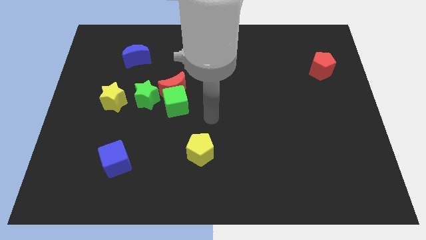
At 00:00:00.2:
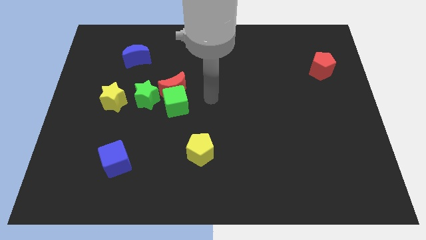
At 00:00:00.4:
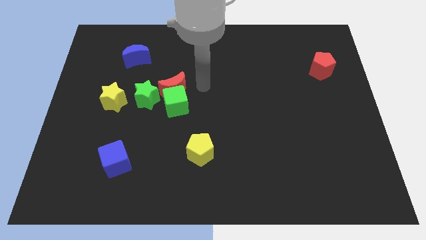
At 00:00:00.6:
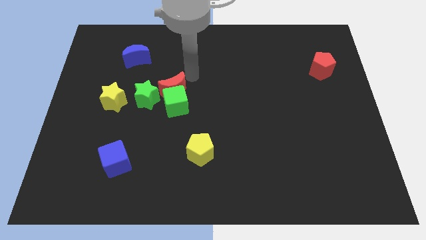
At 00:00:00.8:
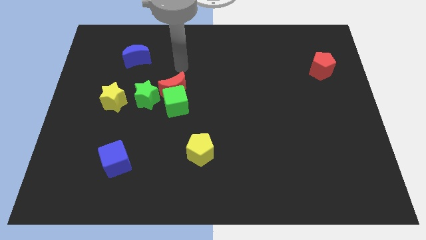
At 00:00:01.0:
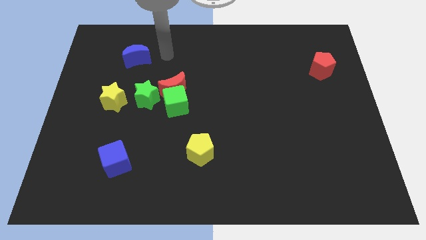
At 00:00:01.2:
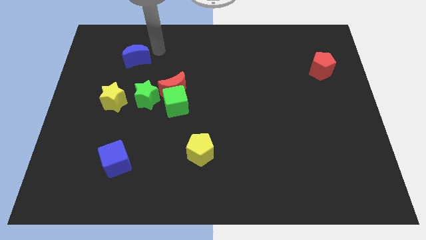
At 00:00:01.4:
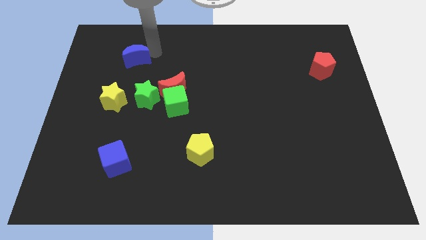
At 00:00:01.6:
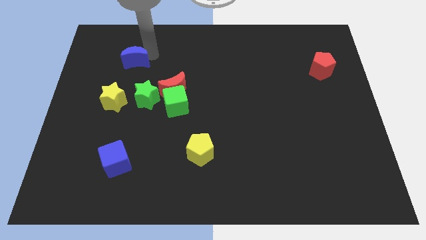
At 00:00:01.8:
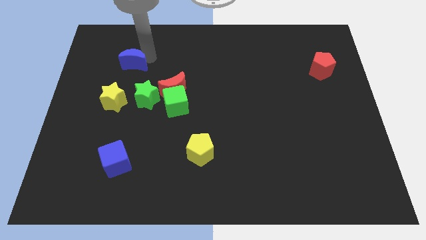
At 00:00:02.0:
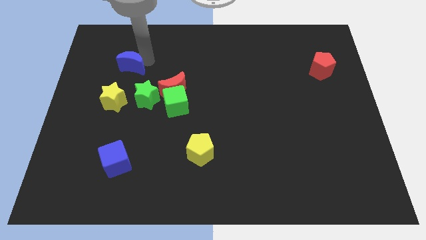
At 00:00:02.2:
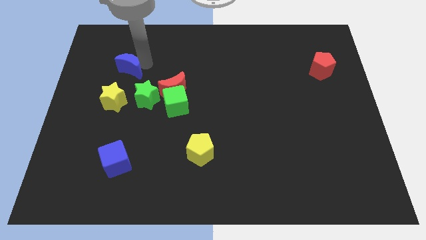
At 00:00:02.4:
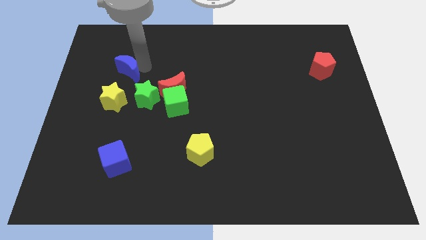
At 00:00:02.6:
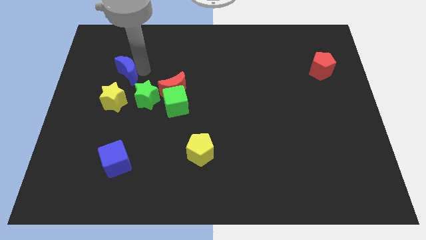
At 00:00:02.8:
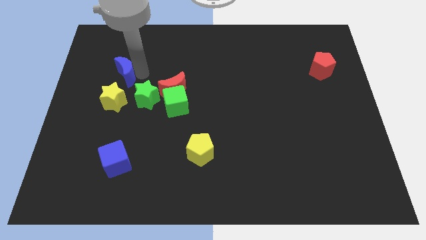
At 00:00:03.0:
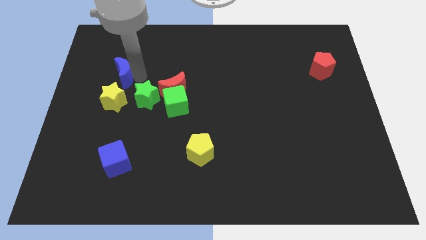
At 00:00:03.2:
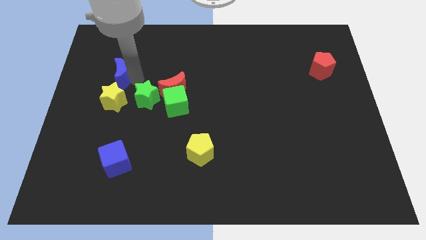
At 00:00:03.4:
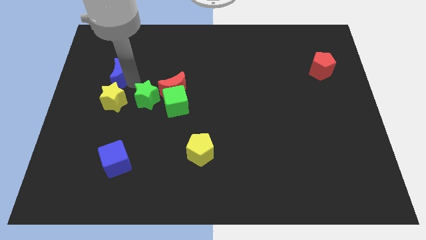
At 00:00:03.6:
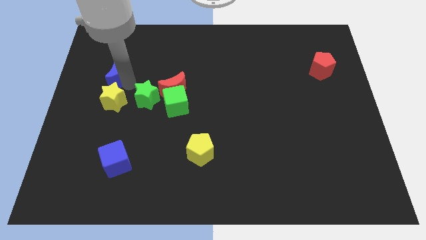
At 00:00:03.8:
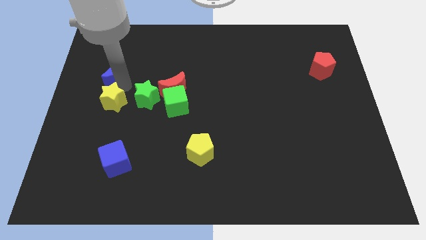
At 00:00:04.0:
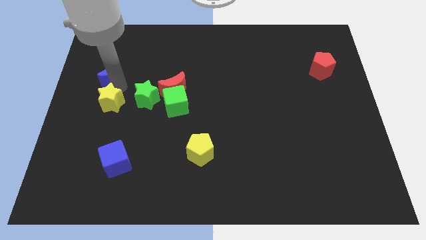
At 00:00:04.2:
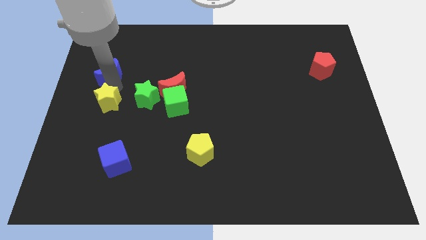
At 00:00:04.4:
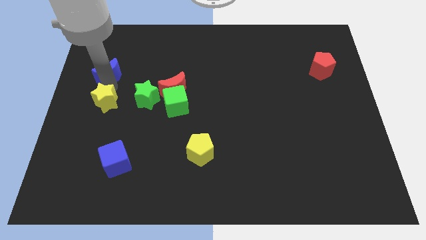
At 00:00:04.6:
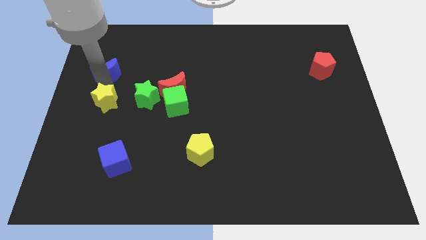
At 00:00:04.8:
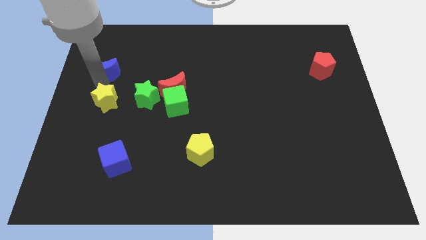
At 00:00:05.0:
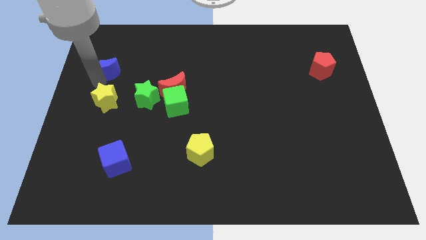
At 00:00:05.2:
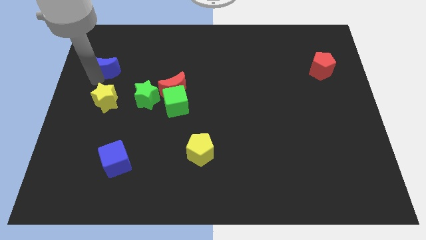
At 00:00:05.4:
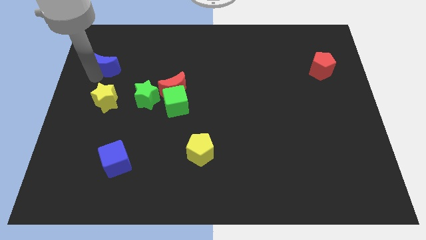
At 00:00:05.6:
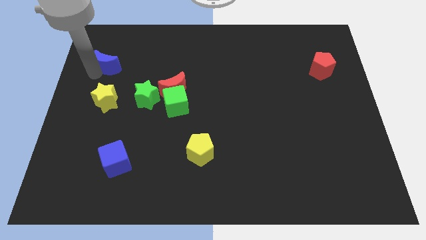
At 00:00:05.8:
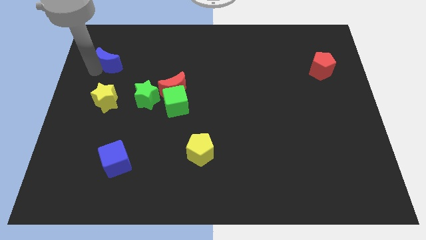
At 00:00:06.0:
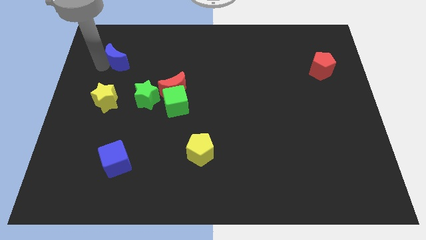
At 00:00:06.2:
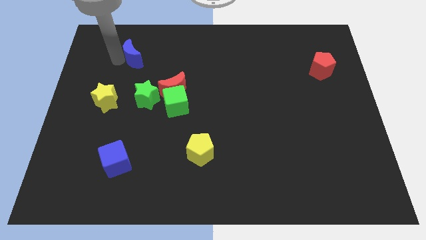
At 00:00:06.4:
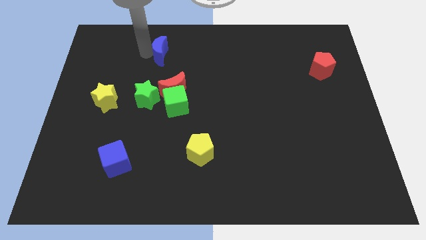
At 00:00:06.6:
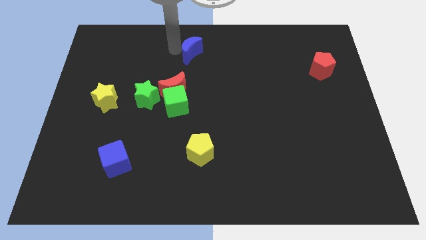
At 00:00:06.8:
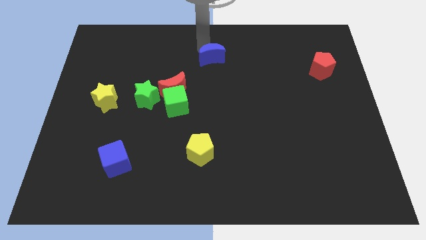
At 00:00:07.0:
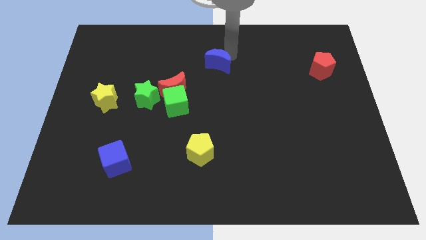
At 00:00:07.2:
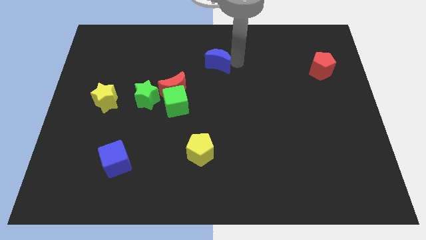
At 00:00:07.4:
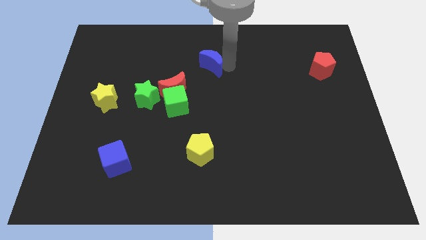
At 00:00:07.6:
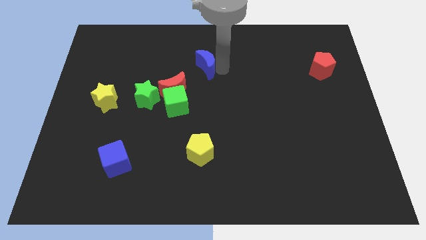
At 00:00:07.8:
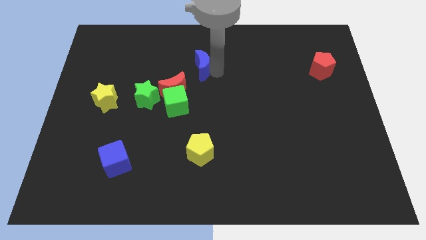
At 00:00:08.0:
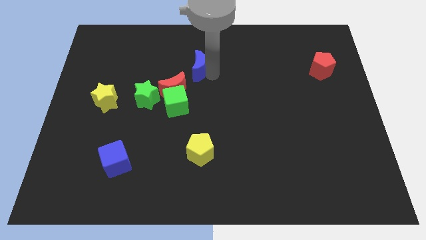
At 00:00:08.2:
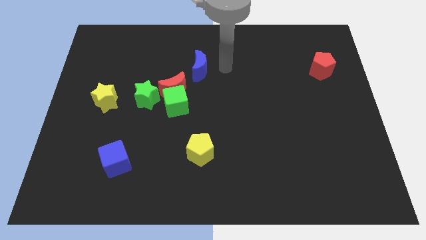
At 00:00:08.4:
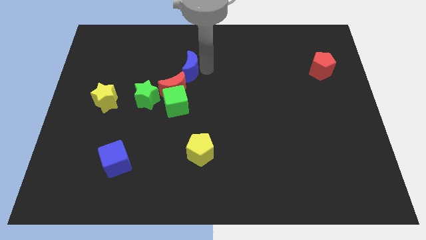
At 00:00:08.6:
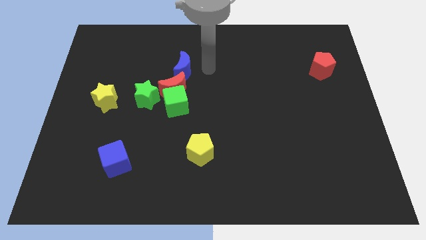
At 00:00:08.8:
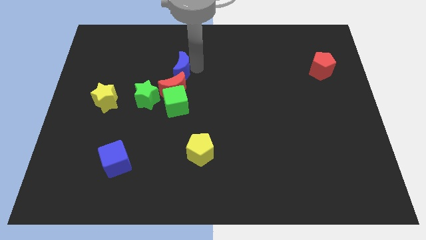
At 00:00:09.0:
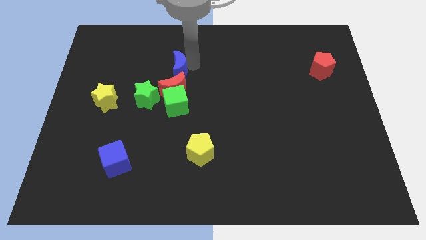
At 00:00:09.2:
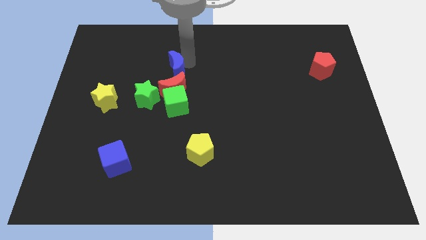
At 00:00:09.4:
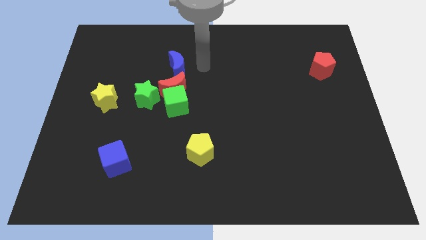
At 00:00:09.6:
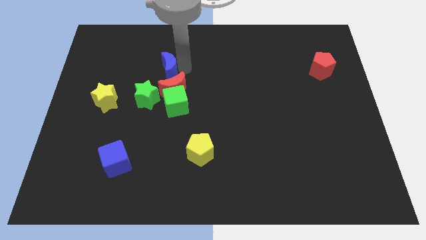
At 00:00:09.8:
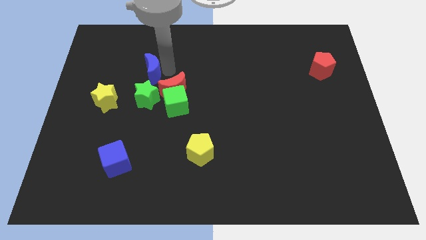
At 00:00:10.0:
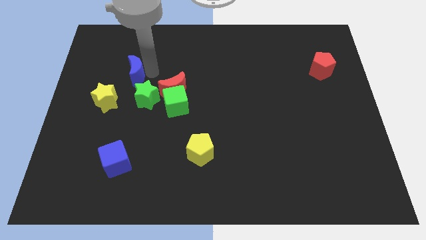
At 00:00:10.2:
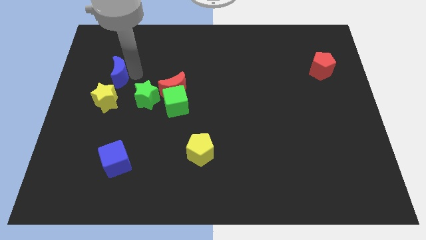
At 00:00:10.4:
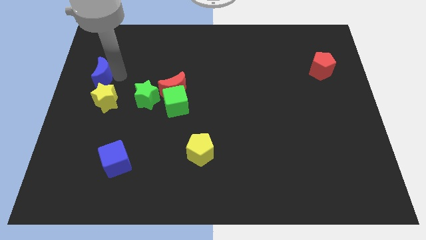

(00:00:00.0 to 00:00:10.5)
slide the blue moon to the left side

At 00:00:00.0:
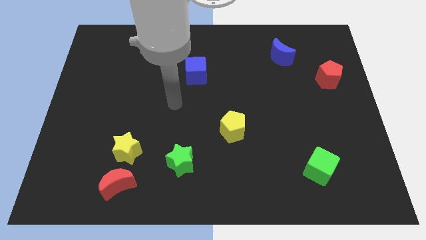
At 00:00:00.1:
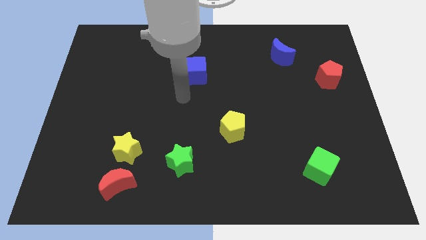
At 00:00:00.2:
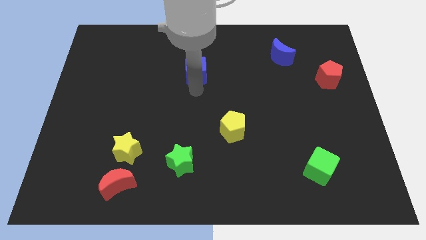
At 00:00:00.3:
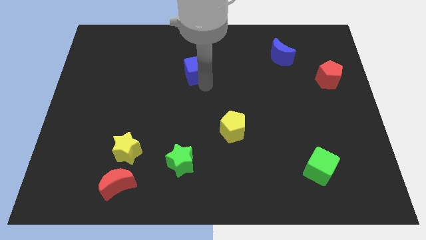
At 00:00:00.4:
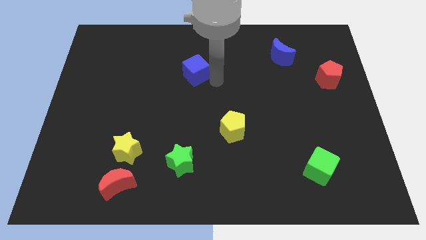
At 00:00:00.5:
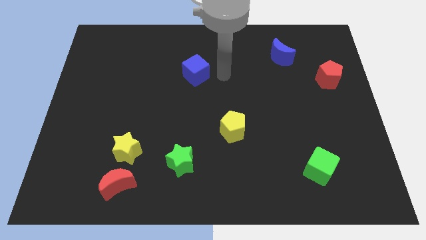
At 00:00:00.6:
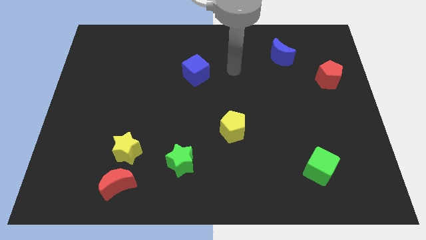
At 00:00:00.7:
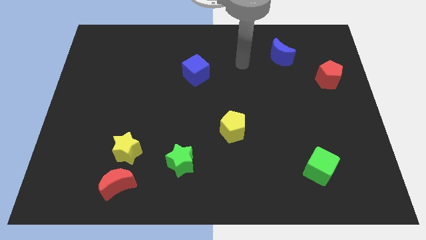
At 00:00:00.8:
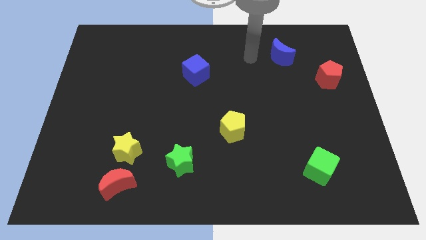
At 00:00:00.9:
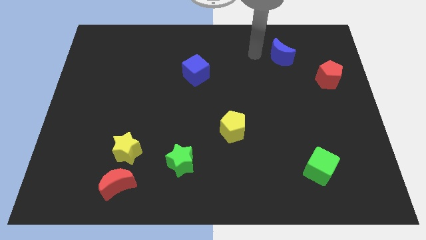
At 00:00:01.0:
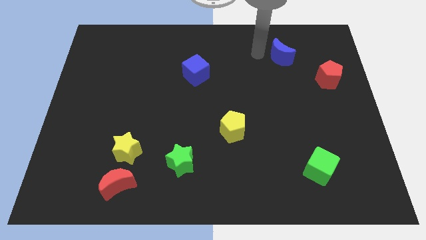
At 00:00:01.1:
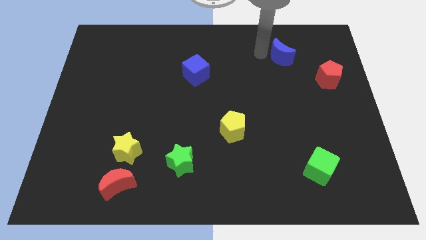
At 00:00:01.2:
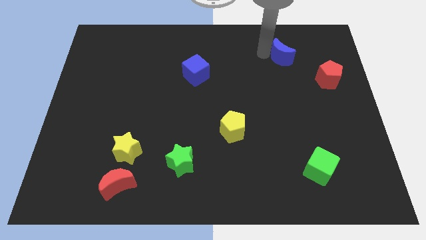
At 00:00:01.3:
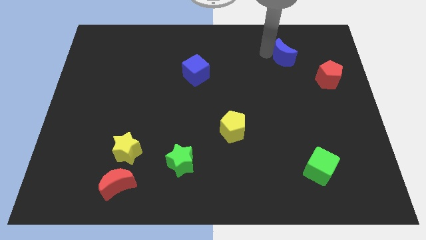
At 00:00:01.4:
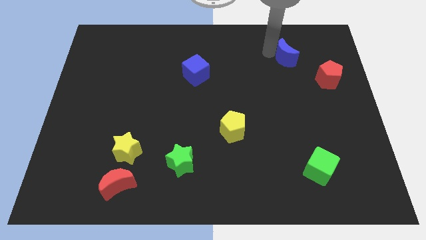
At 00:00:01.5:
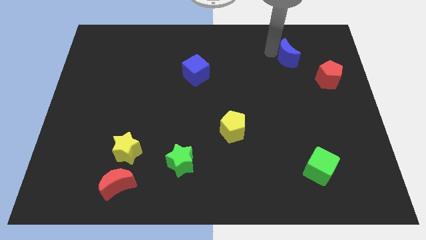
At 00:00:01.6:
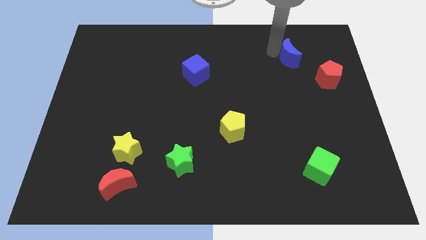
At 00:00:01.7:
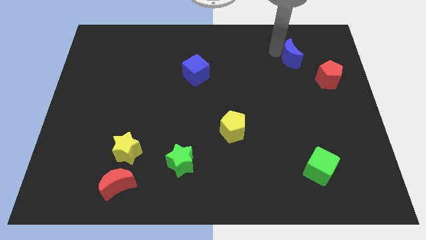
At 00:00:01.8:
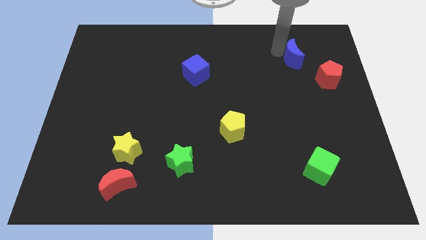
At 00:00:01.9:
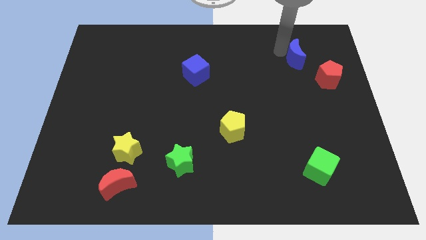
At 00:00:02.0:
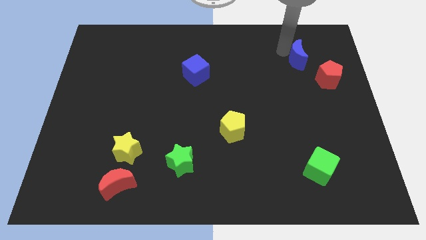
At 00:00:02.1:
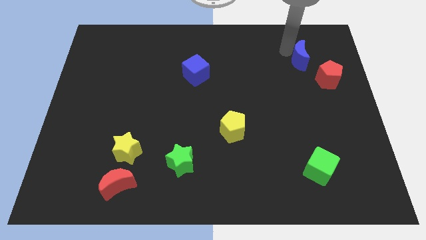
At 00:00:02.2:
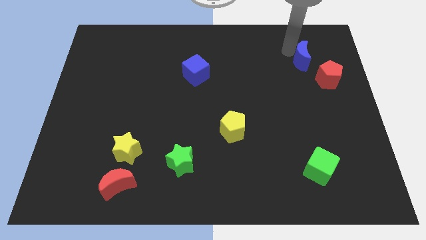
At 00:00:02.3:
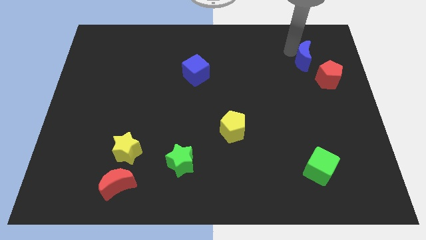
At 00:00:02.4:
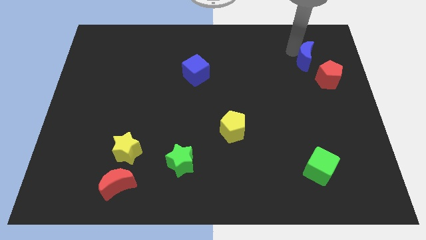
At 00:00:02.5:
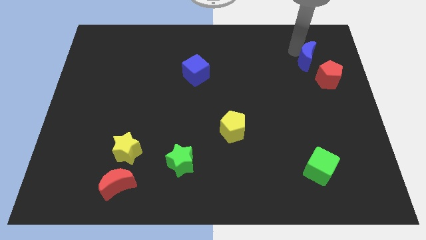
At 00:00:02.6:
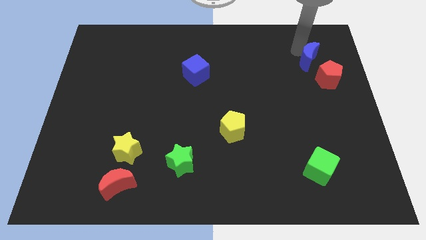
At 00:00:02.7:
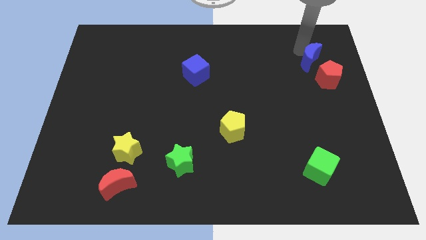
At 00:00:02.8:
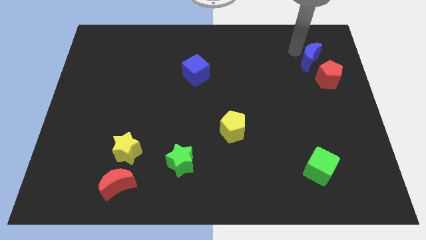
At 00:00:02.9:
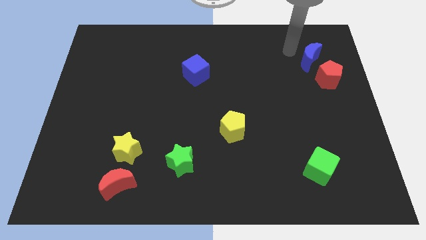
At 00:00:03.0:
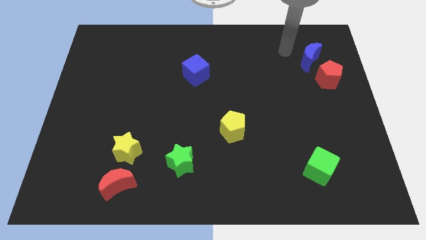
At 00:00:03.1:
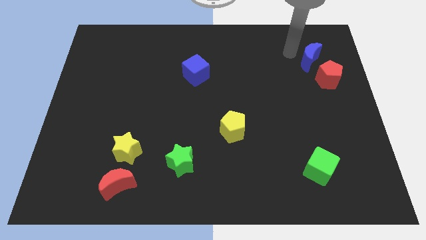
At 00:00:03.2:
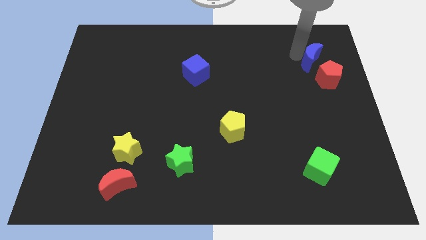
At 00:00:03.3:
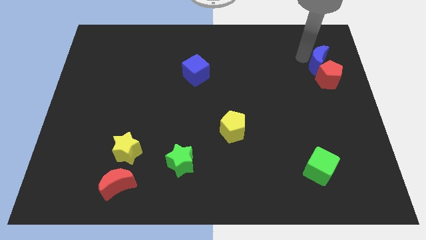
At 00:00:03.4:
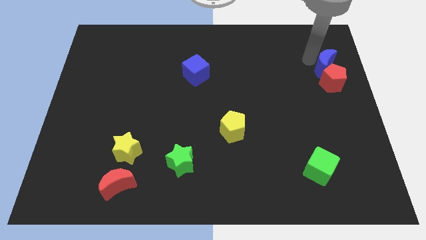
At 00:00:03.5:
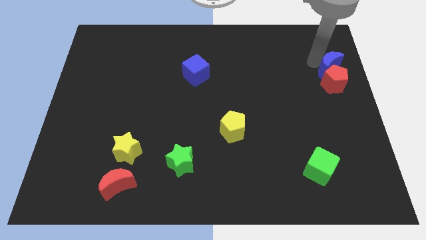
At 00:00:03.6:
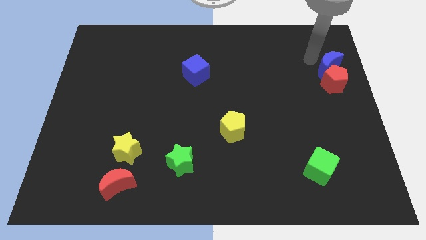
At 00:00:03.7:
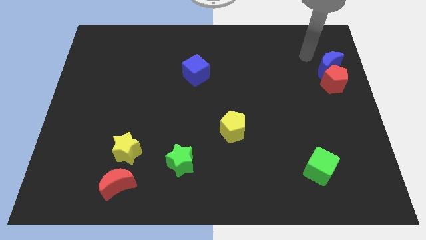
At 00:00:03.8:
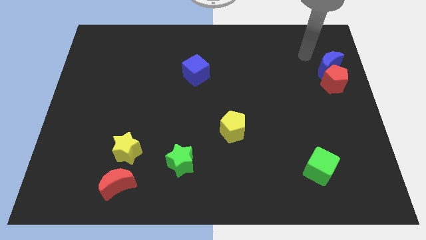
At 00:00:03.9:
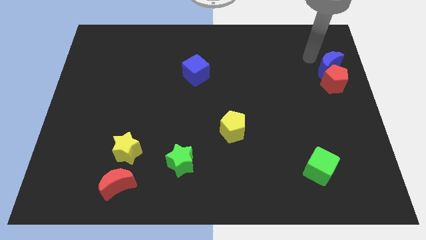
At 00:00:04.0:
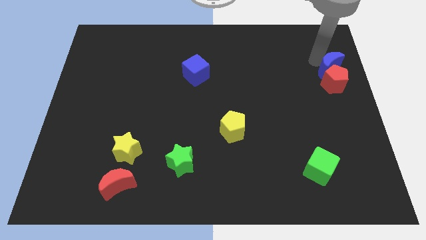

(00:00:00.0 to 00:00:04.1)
slide the blue moon to the center right
